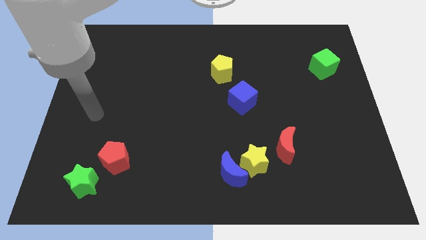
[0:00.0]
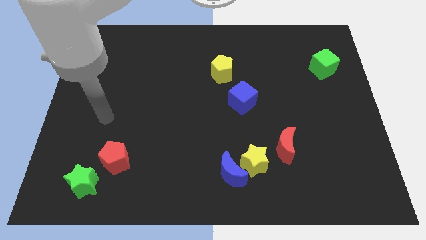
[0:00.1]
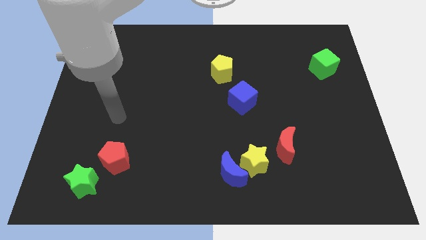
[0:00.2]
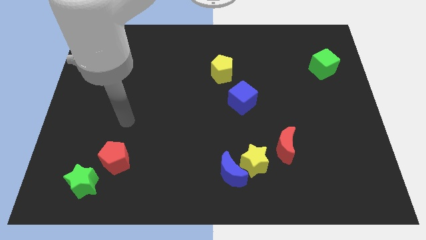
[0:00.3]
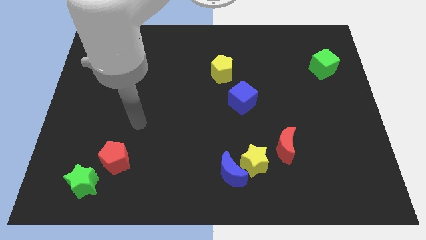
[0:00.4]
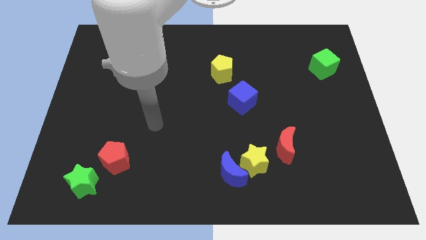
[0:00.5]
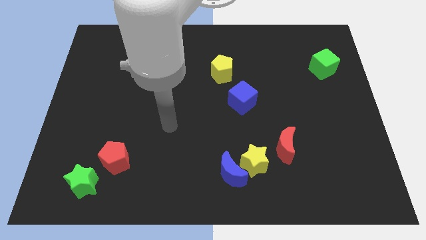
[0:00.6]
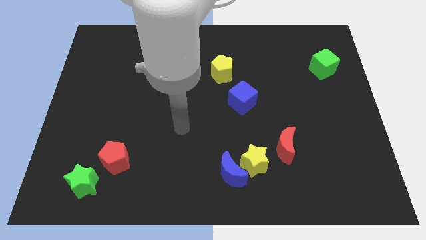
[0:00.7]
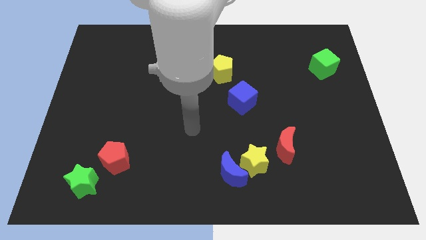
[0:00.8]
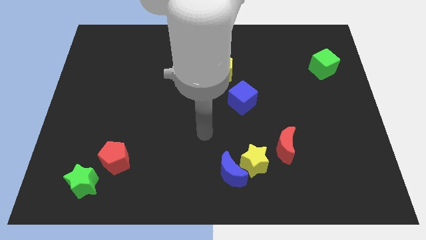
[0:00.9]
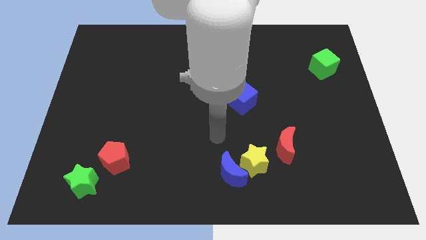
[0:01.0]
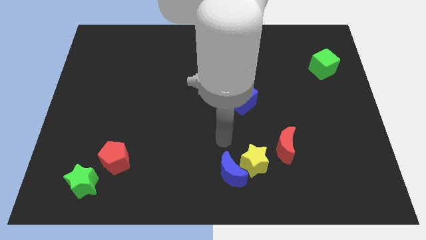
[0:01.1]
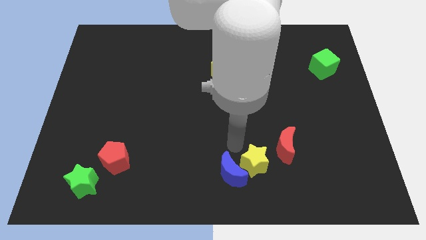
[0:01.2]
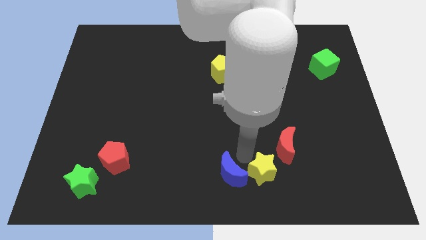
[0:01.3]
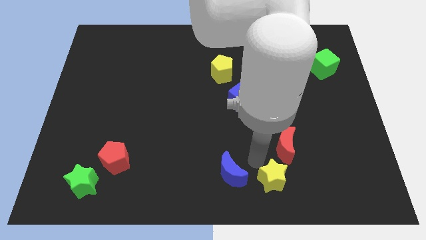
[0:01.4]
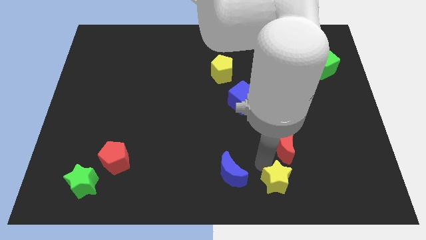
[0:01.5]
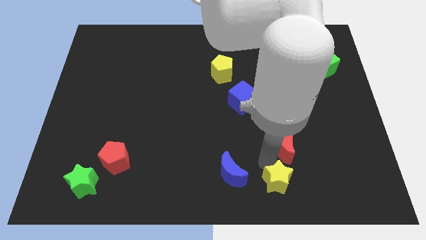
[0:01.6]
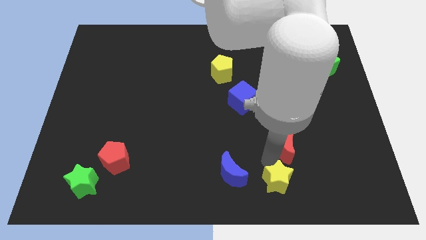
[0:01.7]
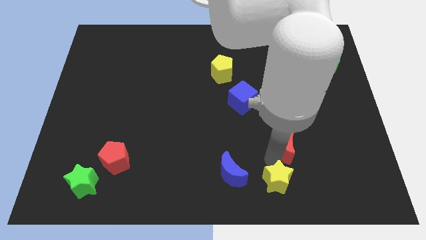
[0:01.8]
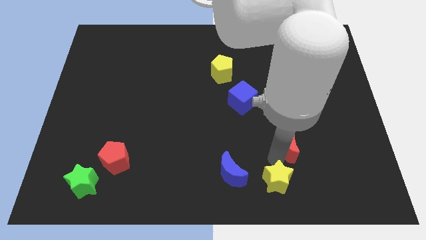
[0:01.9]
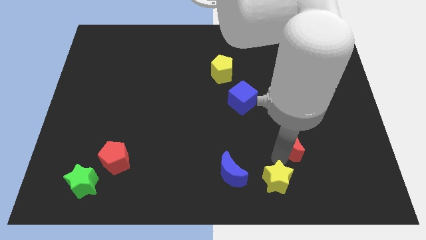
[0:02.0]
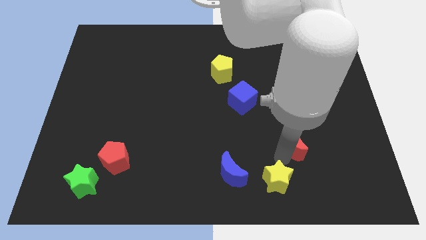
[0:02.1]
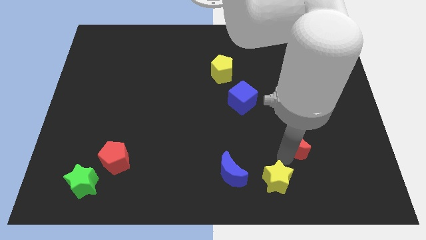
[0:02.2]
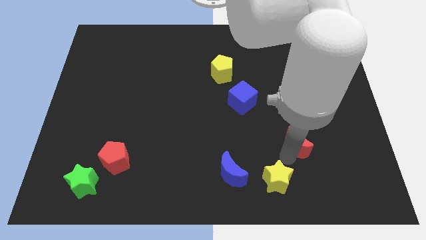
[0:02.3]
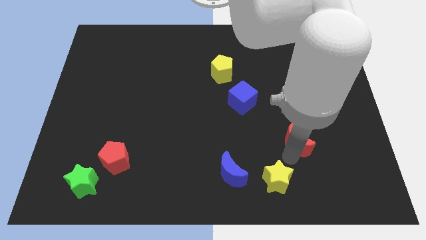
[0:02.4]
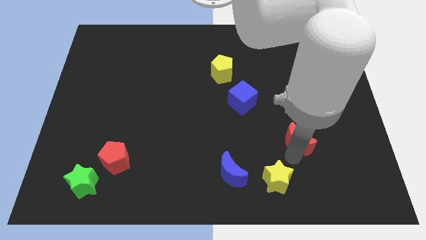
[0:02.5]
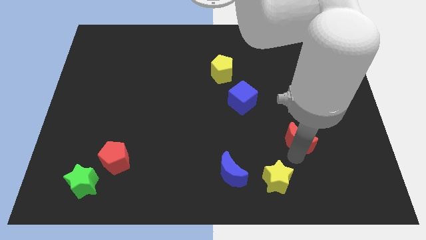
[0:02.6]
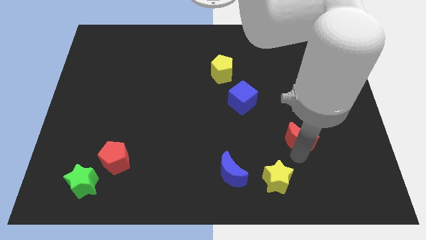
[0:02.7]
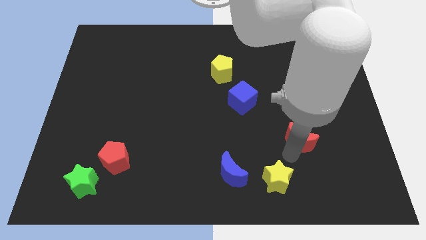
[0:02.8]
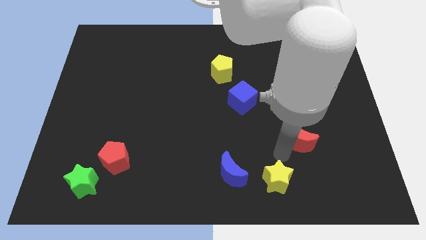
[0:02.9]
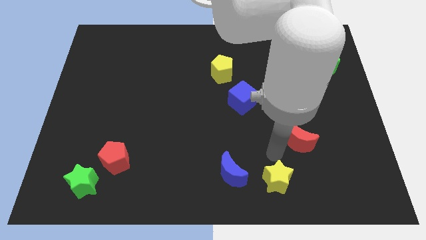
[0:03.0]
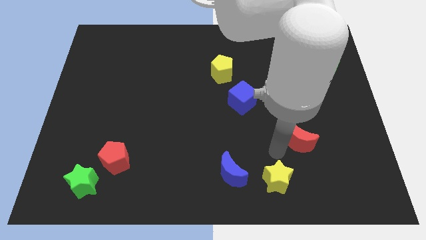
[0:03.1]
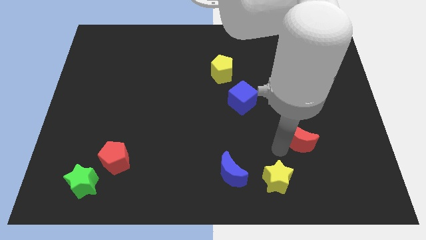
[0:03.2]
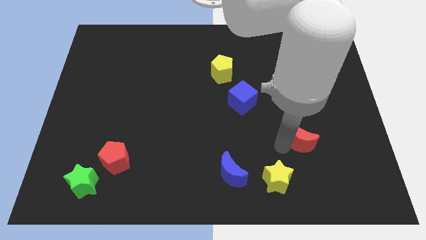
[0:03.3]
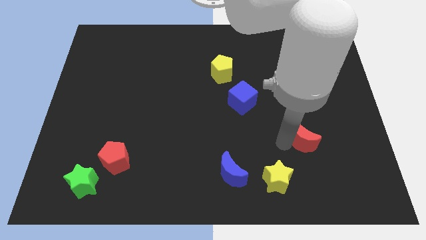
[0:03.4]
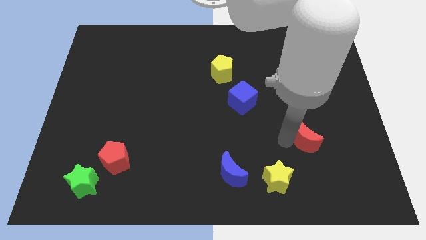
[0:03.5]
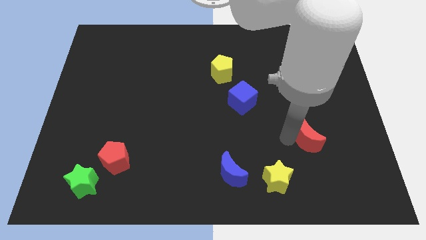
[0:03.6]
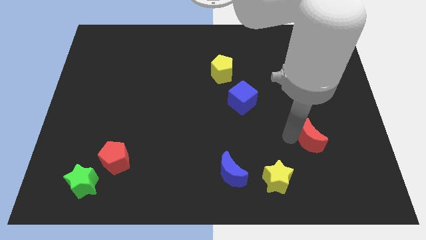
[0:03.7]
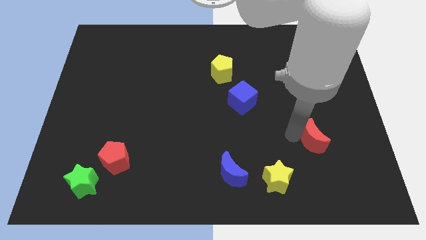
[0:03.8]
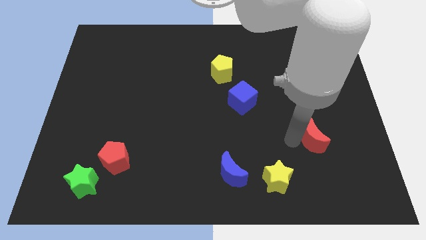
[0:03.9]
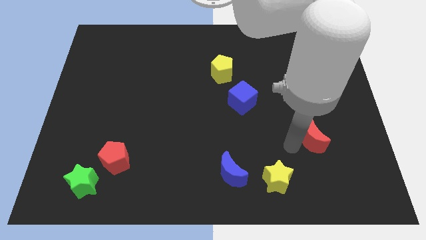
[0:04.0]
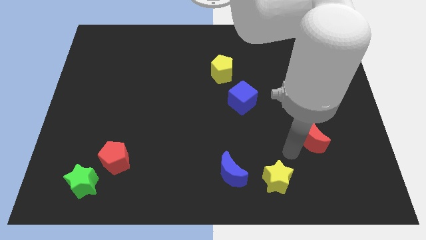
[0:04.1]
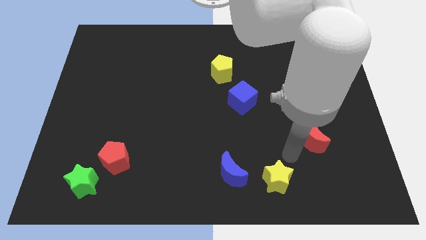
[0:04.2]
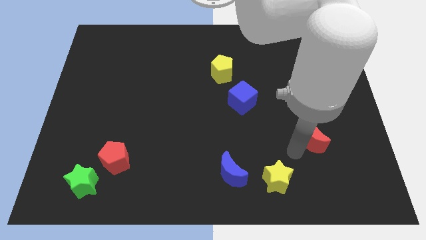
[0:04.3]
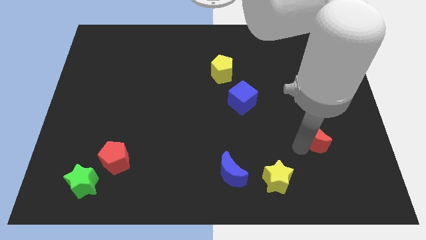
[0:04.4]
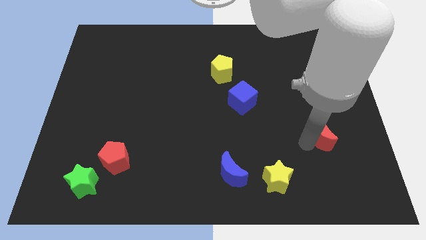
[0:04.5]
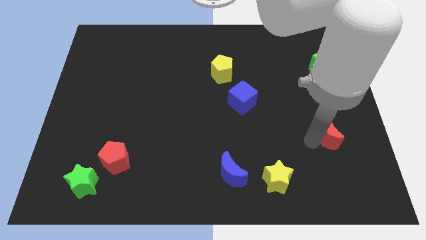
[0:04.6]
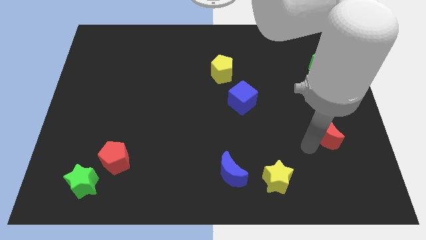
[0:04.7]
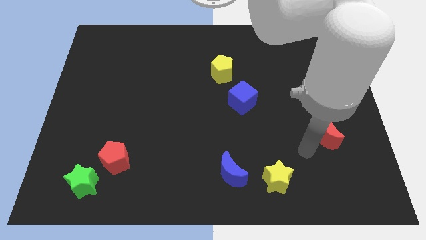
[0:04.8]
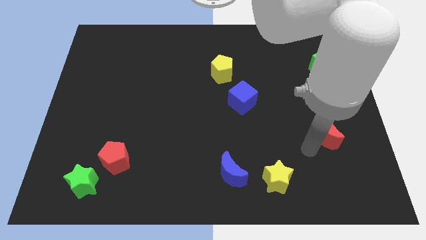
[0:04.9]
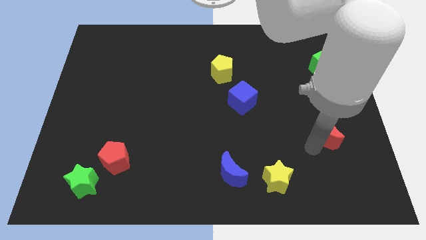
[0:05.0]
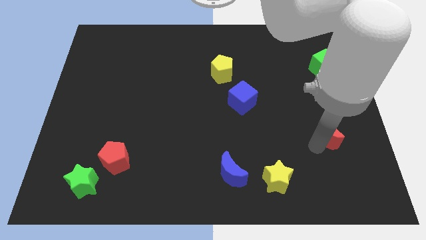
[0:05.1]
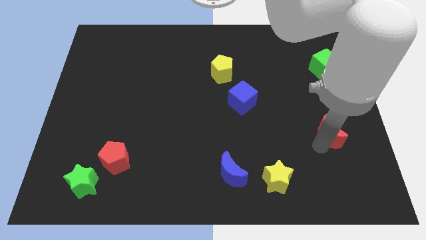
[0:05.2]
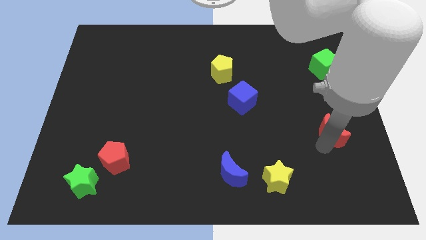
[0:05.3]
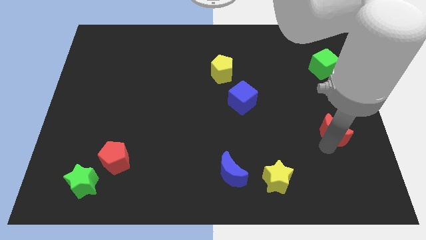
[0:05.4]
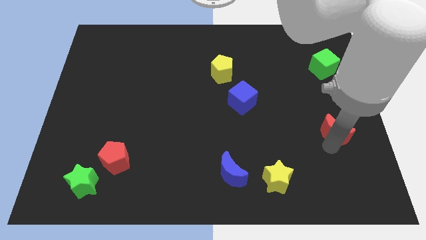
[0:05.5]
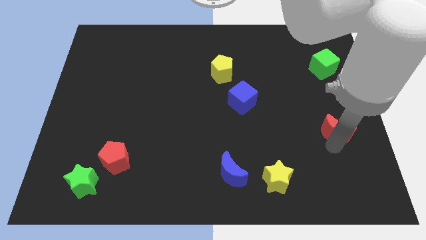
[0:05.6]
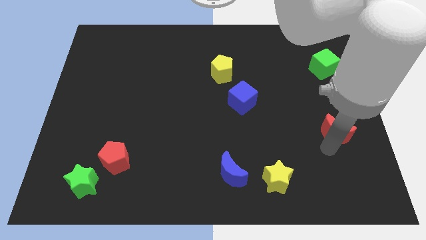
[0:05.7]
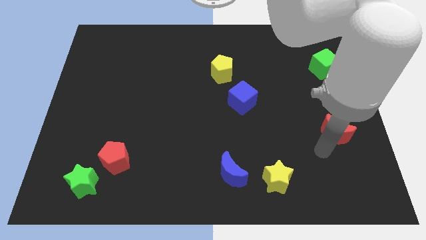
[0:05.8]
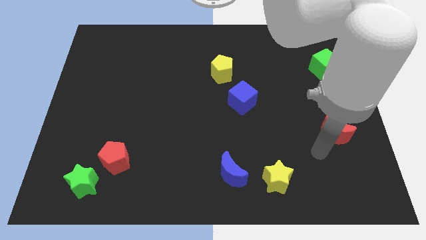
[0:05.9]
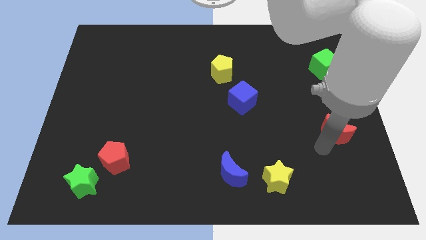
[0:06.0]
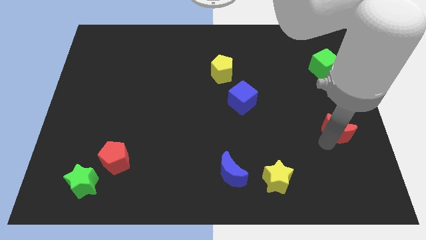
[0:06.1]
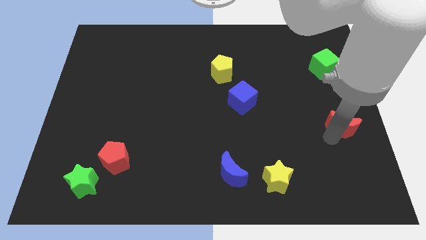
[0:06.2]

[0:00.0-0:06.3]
put the red moon to the right side of the board

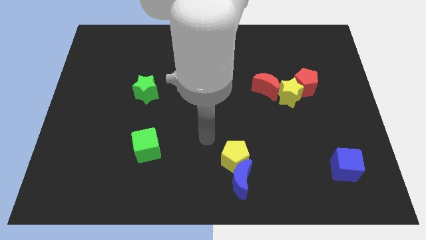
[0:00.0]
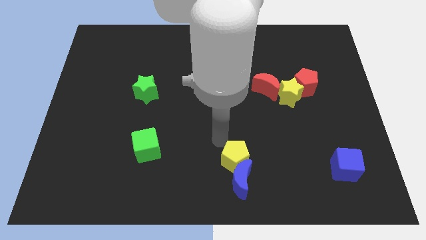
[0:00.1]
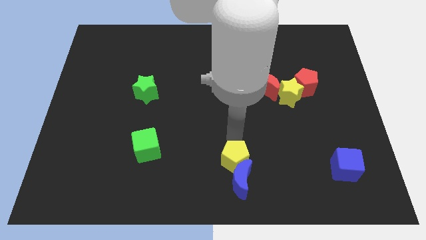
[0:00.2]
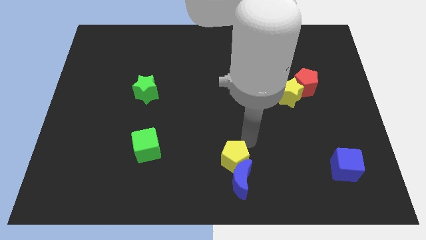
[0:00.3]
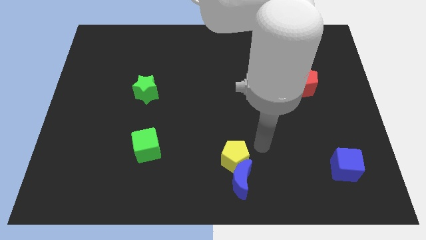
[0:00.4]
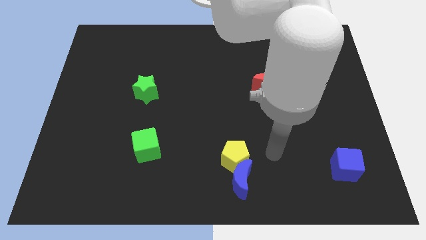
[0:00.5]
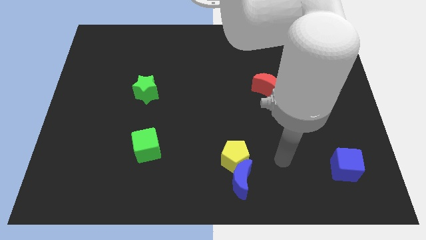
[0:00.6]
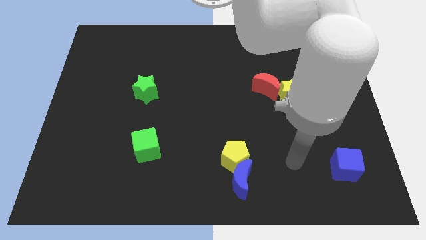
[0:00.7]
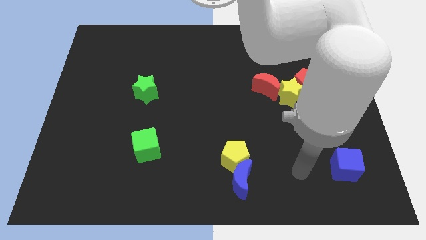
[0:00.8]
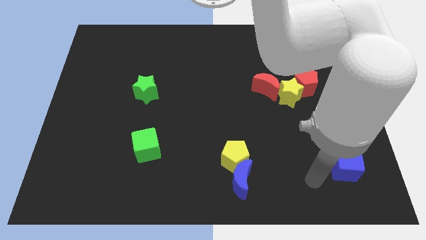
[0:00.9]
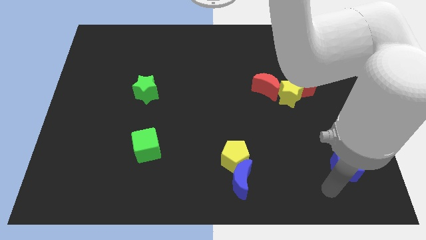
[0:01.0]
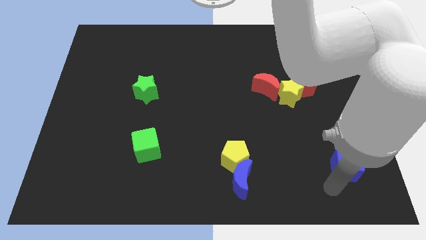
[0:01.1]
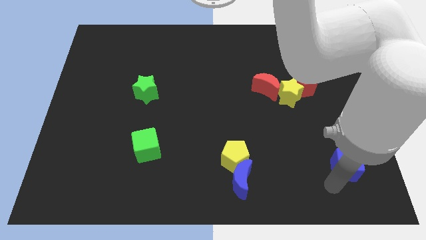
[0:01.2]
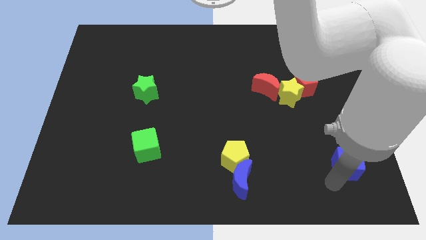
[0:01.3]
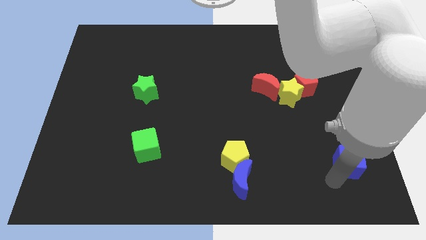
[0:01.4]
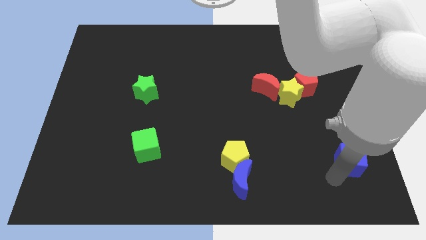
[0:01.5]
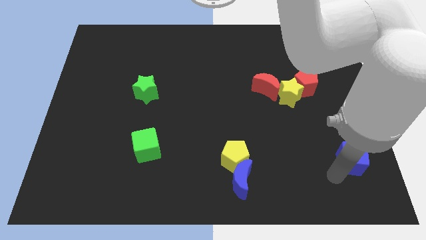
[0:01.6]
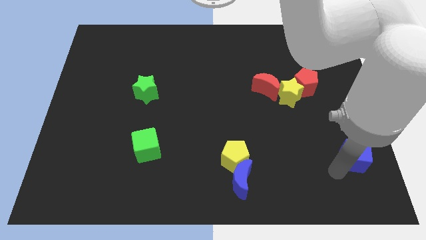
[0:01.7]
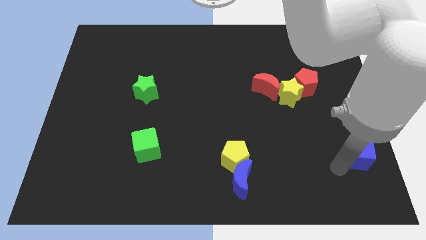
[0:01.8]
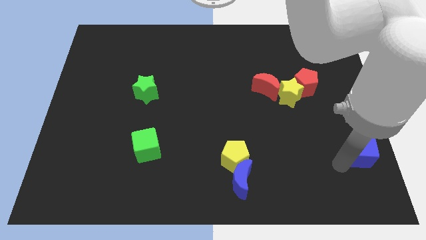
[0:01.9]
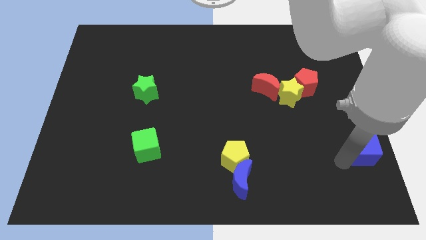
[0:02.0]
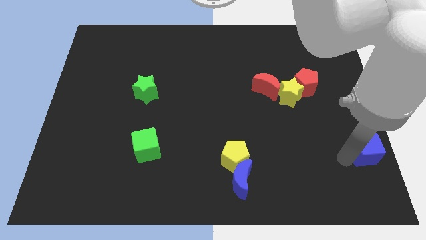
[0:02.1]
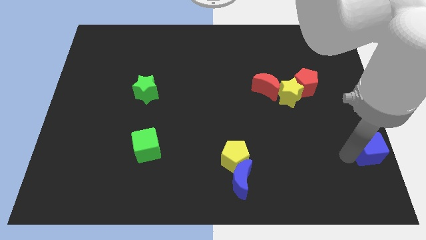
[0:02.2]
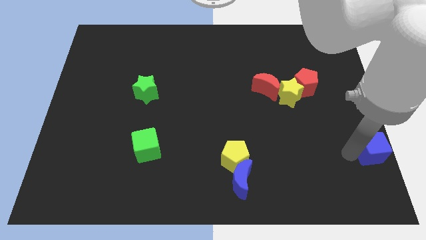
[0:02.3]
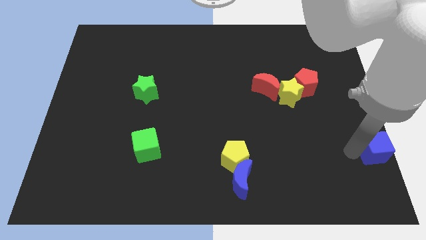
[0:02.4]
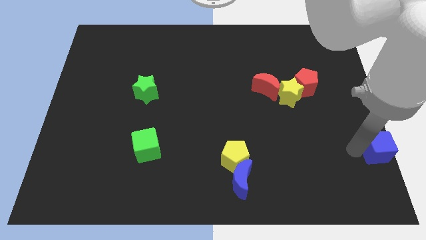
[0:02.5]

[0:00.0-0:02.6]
put the blue cube to the right side of the board
